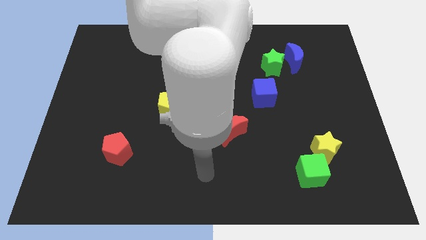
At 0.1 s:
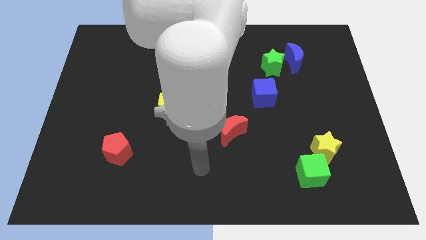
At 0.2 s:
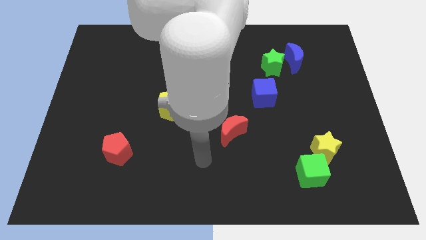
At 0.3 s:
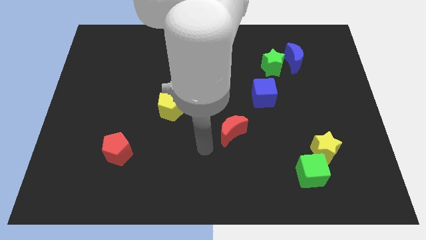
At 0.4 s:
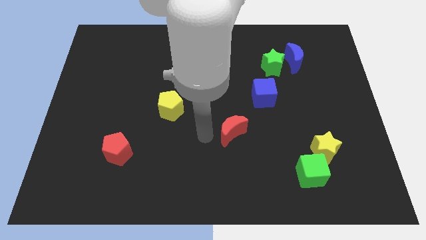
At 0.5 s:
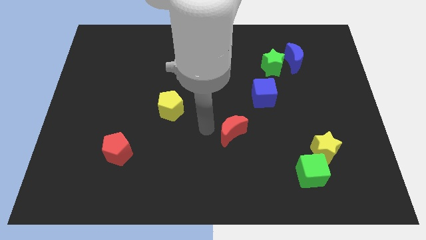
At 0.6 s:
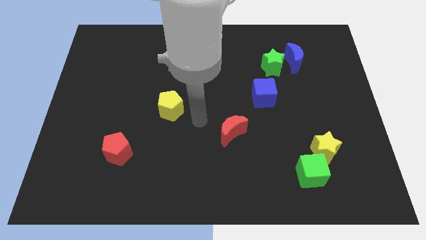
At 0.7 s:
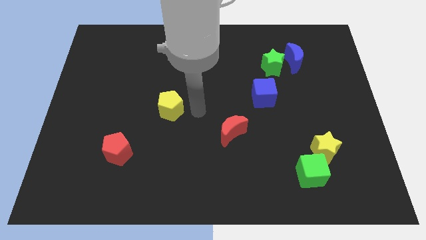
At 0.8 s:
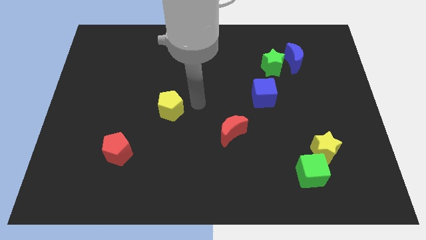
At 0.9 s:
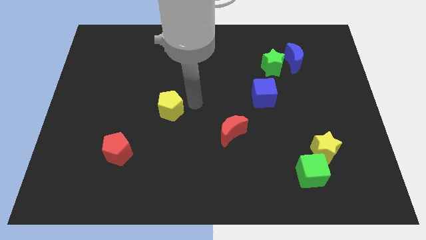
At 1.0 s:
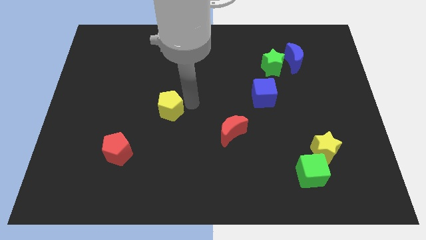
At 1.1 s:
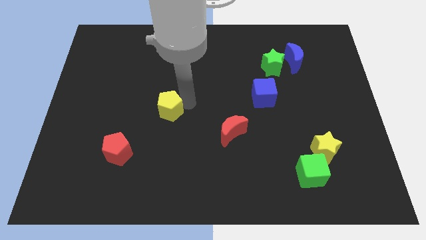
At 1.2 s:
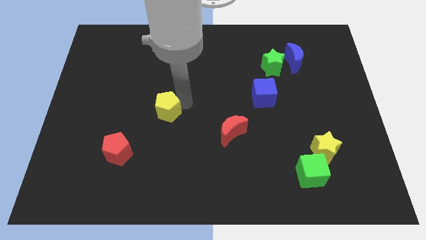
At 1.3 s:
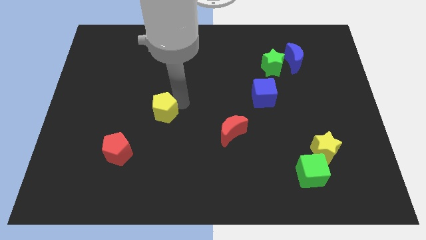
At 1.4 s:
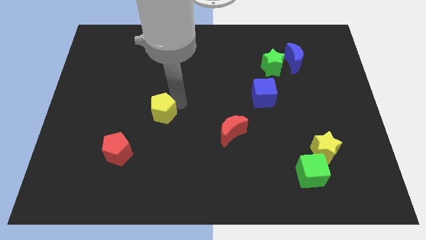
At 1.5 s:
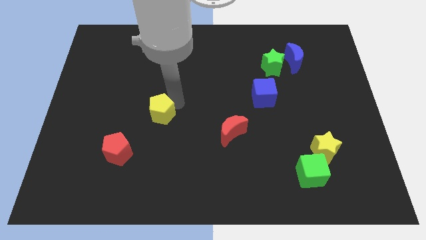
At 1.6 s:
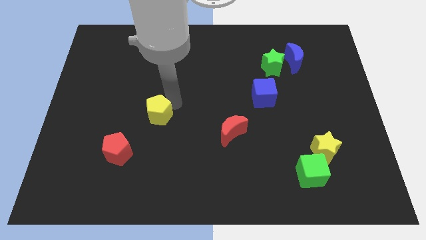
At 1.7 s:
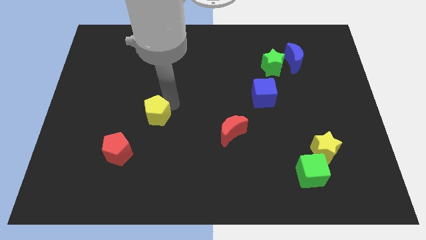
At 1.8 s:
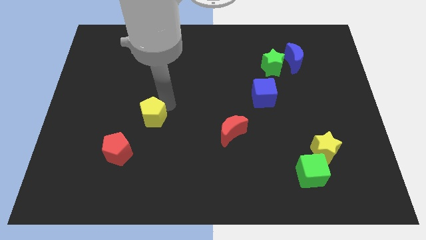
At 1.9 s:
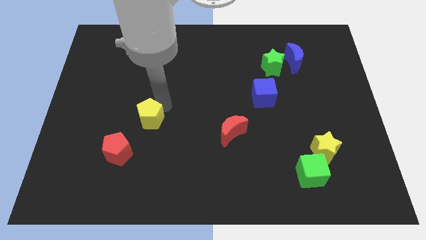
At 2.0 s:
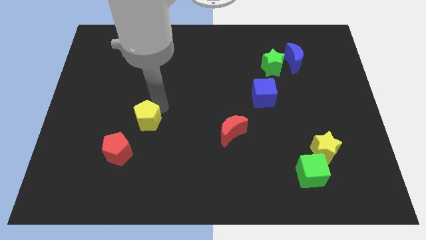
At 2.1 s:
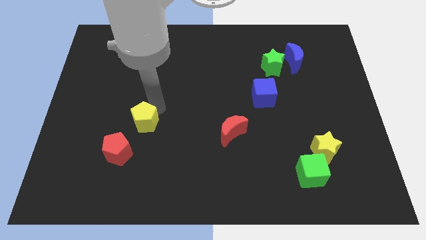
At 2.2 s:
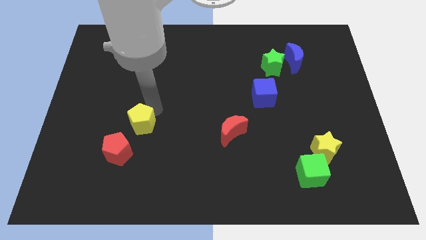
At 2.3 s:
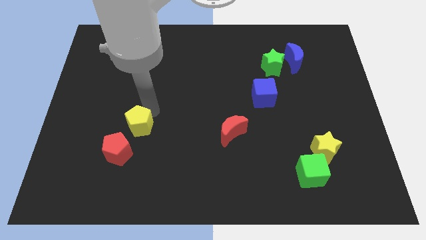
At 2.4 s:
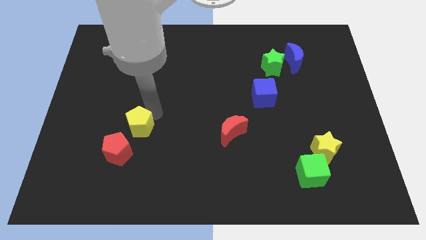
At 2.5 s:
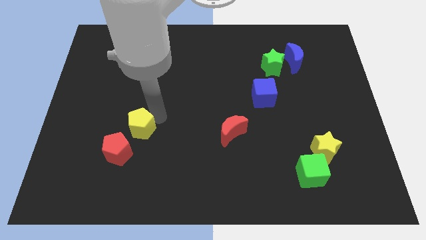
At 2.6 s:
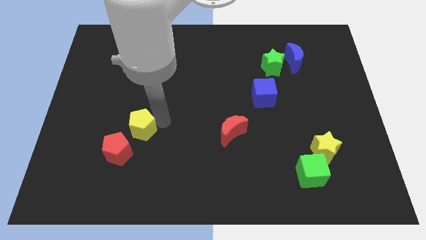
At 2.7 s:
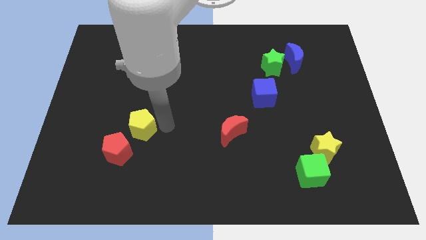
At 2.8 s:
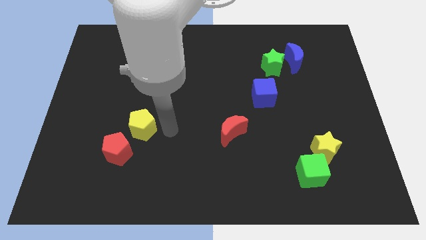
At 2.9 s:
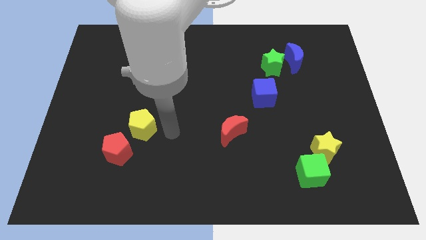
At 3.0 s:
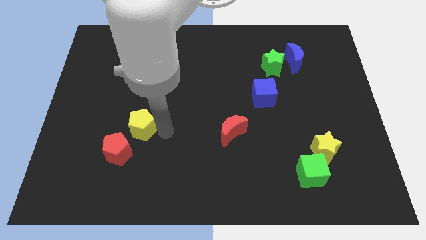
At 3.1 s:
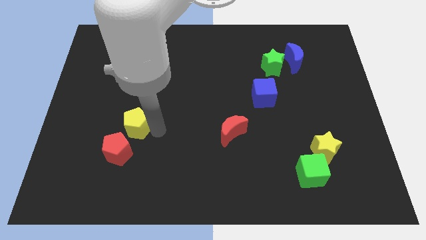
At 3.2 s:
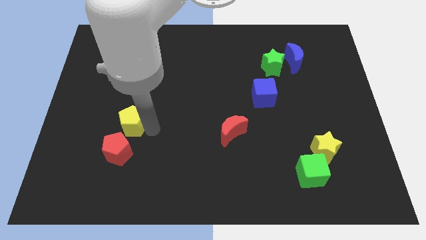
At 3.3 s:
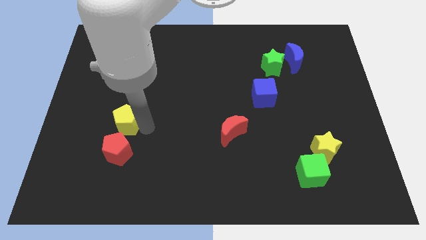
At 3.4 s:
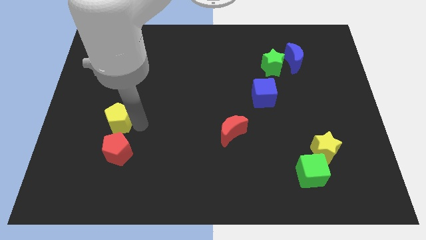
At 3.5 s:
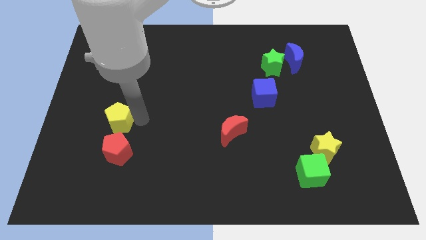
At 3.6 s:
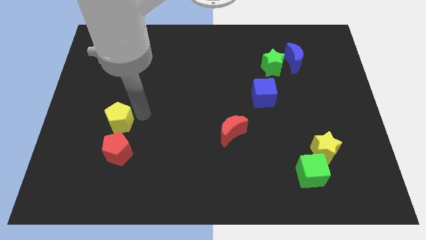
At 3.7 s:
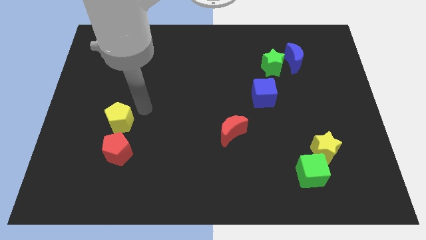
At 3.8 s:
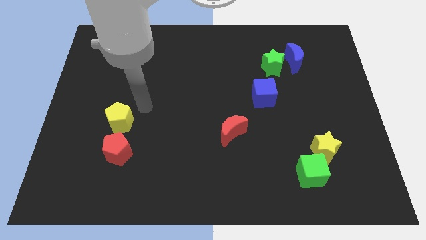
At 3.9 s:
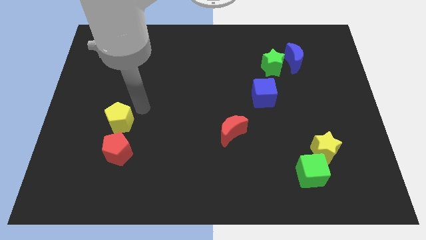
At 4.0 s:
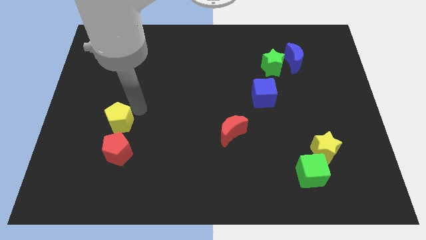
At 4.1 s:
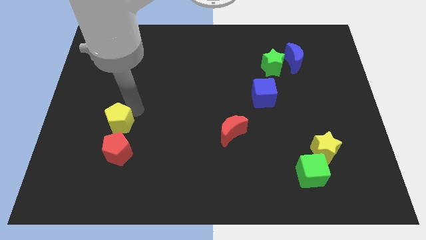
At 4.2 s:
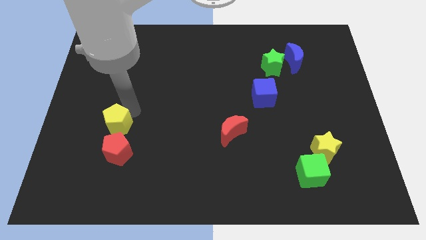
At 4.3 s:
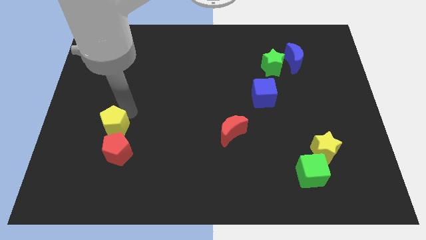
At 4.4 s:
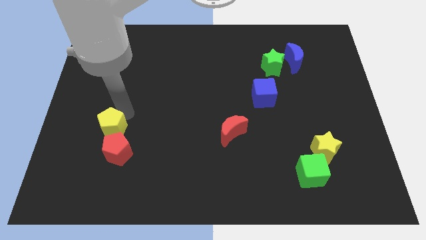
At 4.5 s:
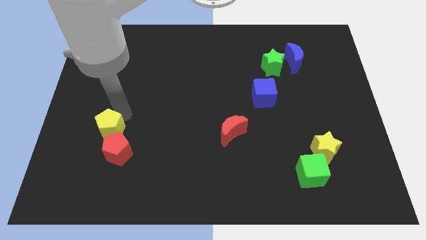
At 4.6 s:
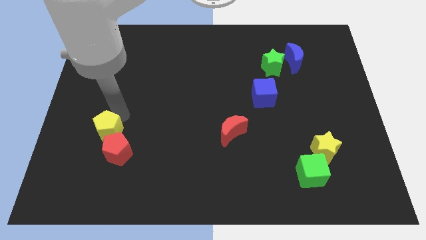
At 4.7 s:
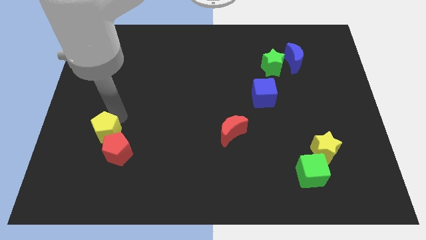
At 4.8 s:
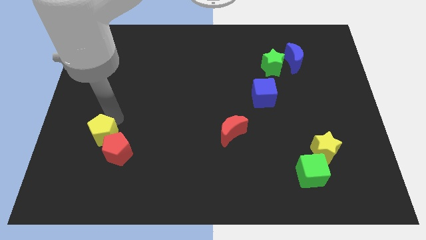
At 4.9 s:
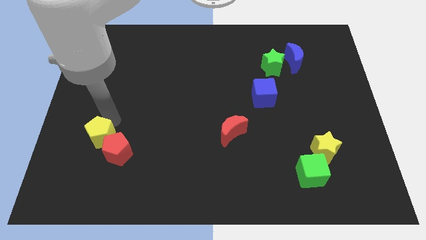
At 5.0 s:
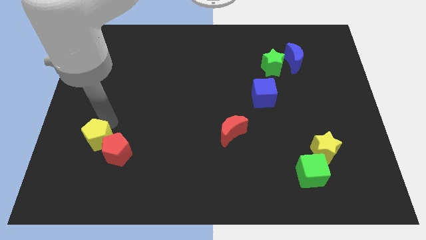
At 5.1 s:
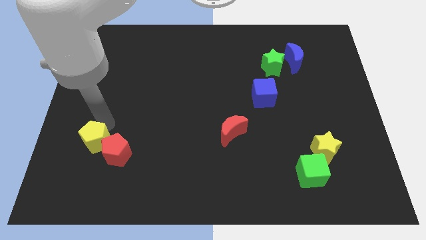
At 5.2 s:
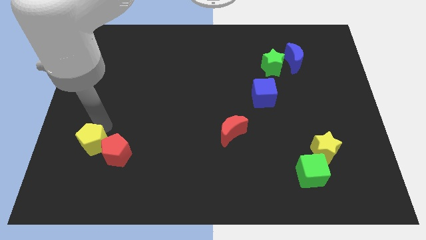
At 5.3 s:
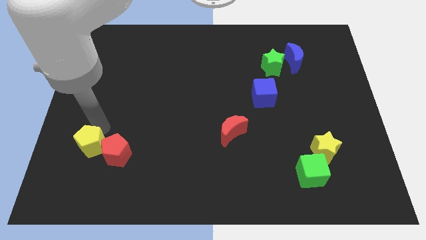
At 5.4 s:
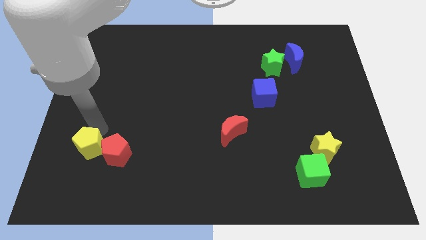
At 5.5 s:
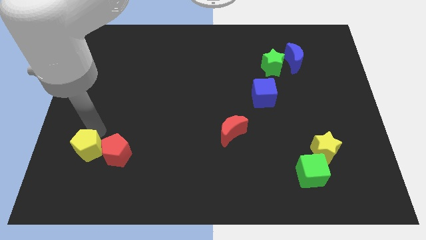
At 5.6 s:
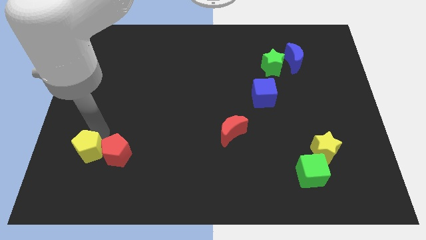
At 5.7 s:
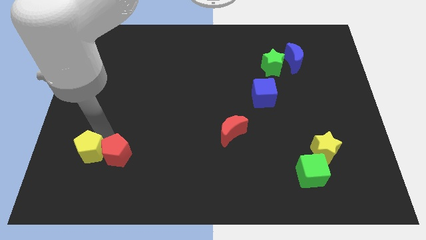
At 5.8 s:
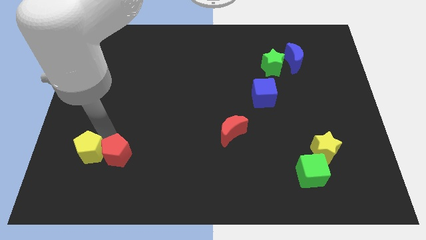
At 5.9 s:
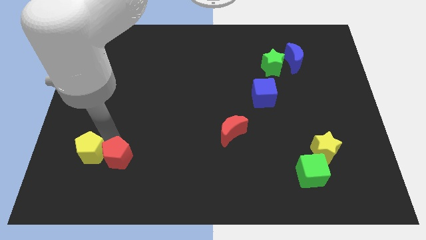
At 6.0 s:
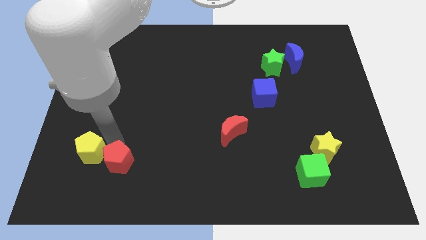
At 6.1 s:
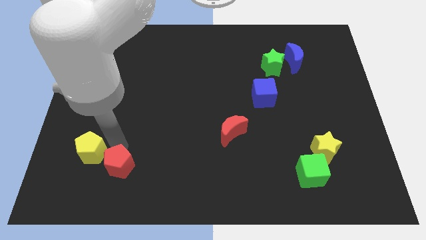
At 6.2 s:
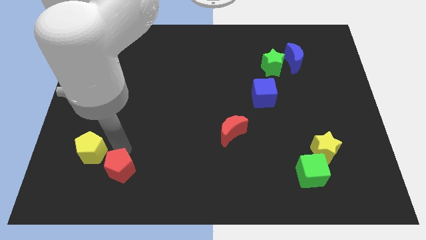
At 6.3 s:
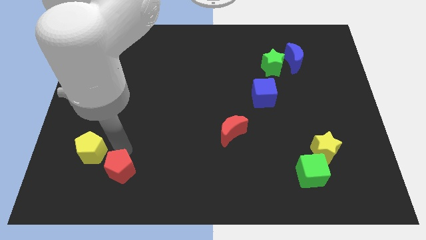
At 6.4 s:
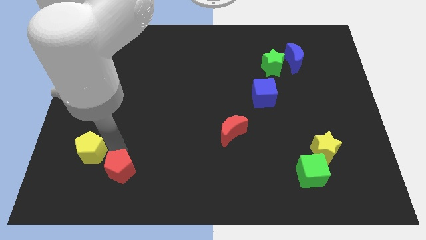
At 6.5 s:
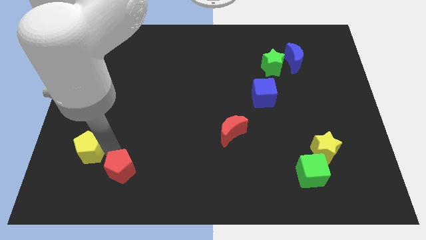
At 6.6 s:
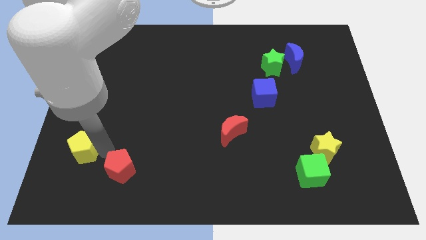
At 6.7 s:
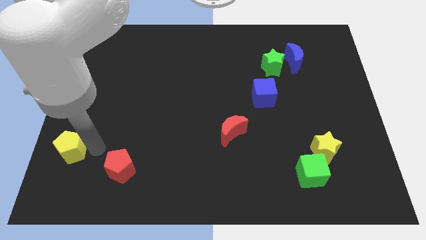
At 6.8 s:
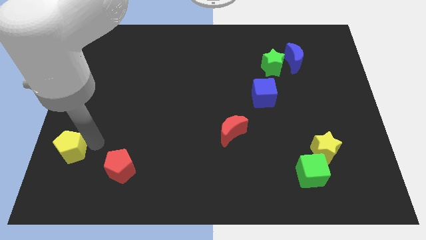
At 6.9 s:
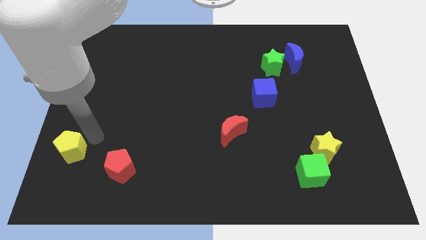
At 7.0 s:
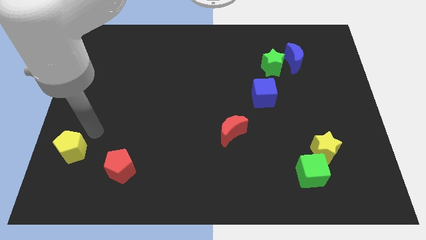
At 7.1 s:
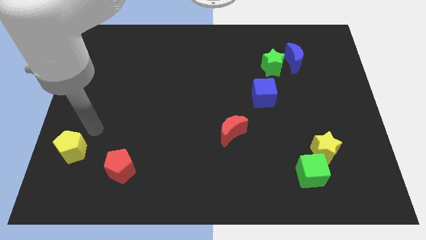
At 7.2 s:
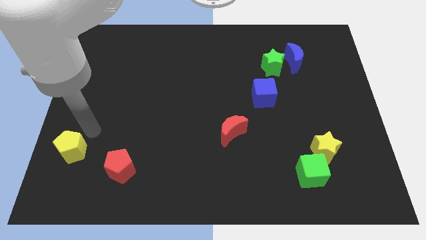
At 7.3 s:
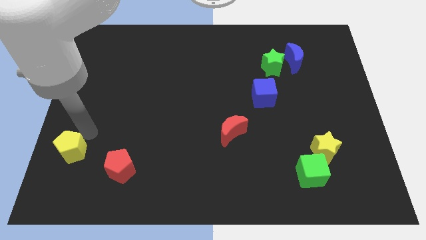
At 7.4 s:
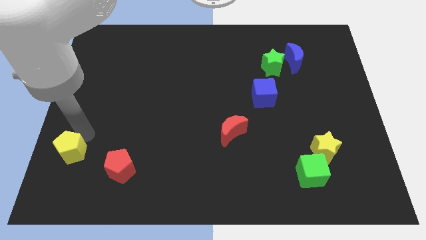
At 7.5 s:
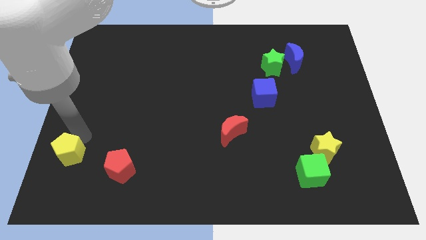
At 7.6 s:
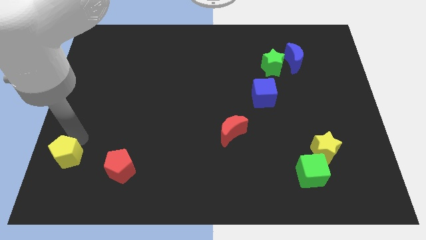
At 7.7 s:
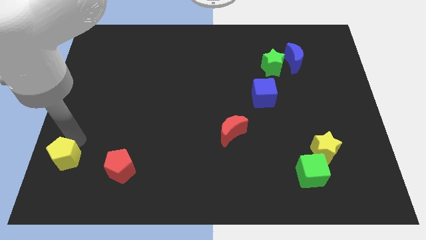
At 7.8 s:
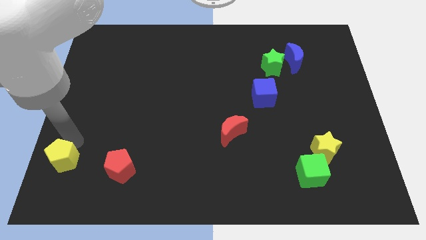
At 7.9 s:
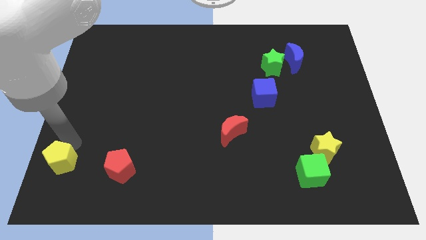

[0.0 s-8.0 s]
put the yellow pentagon to the bottom left

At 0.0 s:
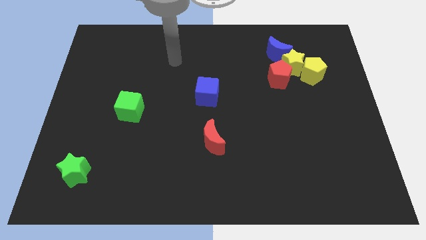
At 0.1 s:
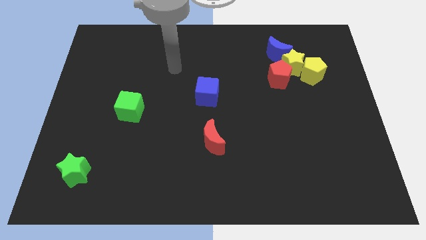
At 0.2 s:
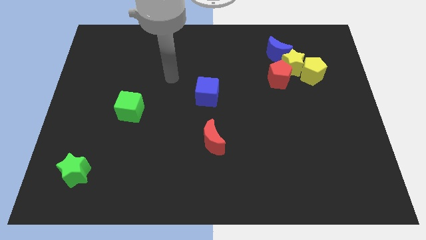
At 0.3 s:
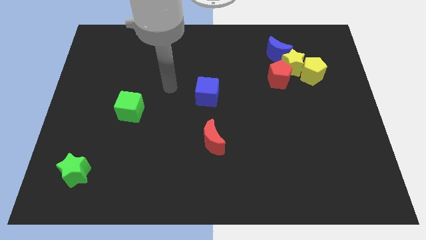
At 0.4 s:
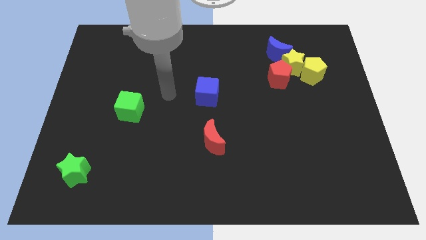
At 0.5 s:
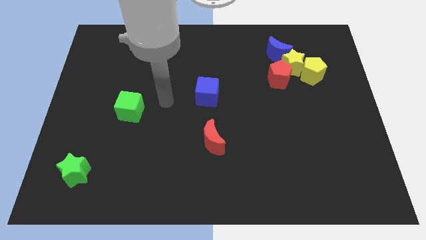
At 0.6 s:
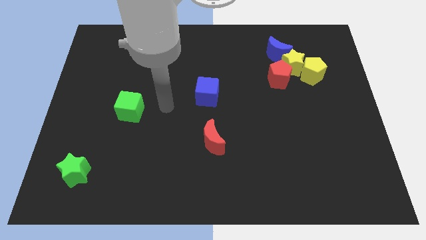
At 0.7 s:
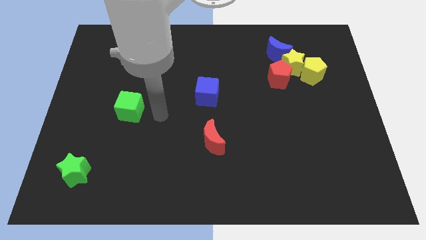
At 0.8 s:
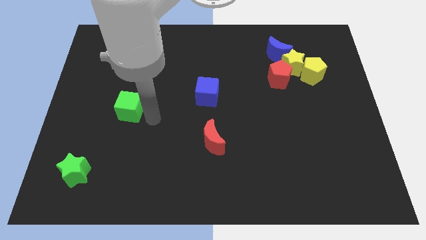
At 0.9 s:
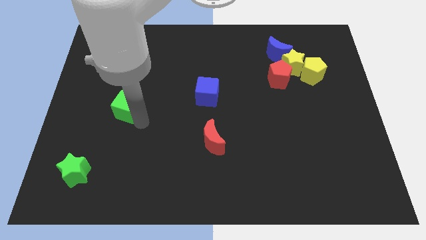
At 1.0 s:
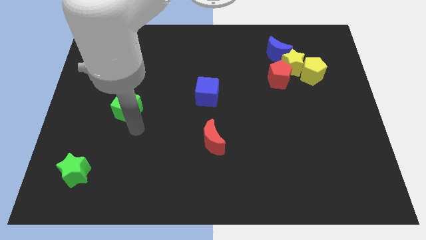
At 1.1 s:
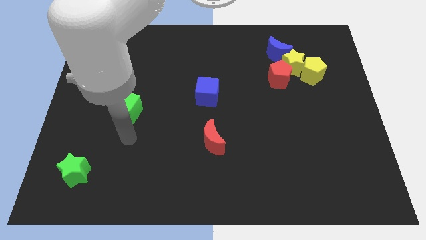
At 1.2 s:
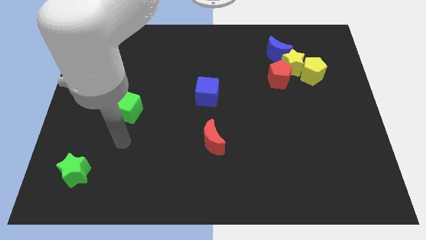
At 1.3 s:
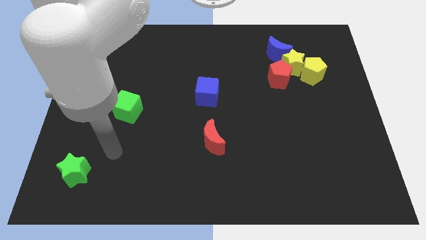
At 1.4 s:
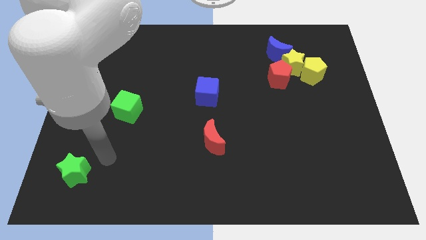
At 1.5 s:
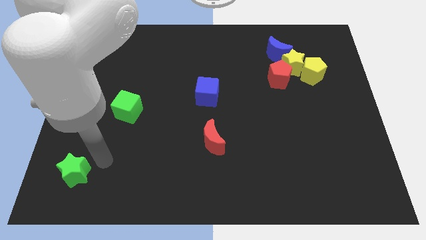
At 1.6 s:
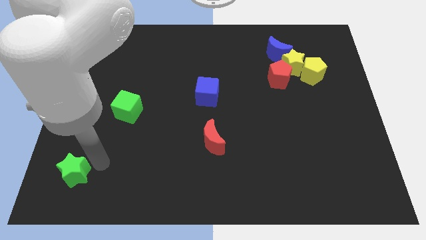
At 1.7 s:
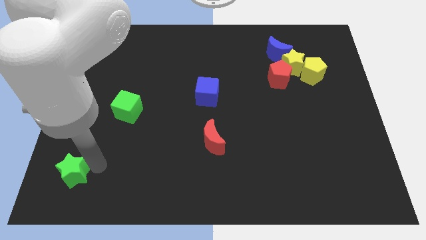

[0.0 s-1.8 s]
push the green star to the lower left corner
